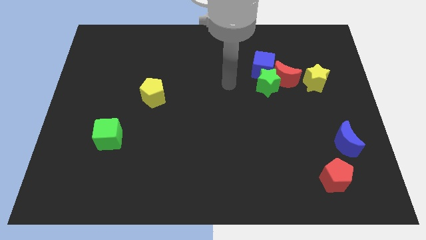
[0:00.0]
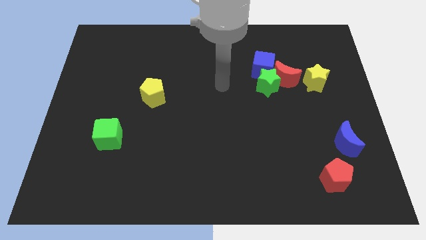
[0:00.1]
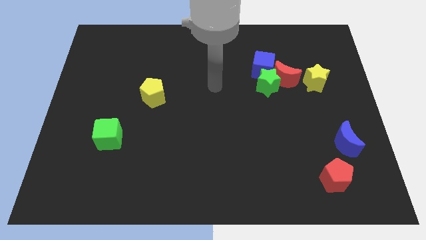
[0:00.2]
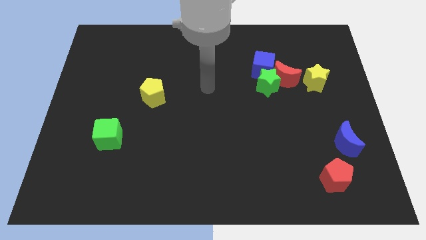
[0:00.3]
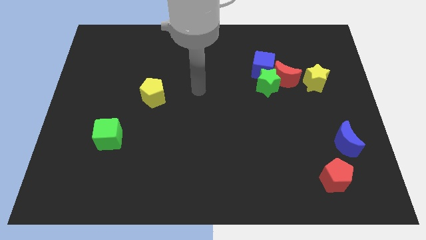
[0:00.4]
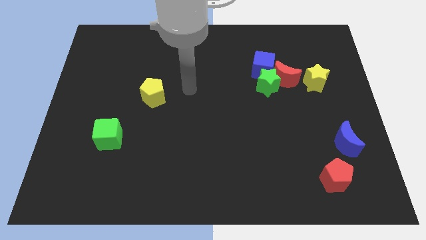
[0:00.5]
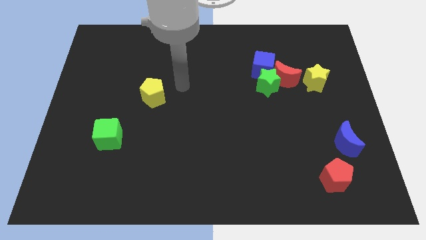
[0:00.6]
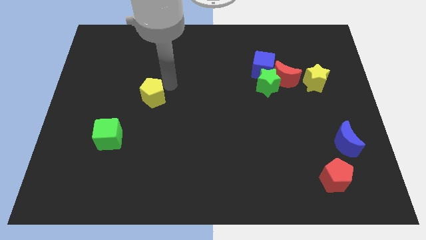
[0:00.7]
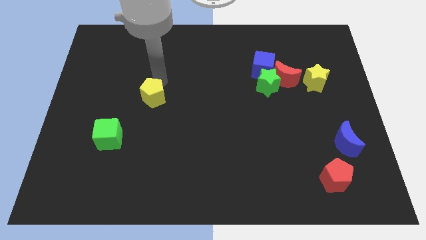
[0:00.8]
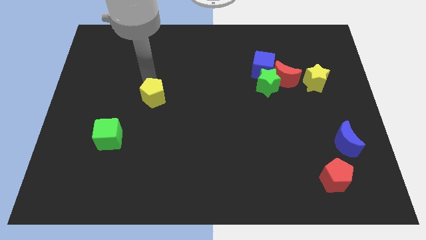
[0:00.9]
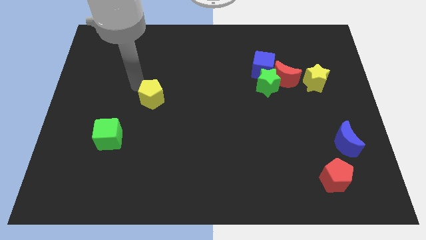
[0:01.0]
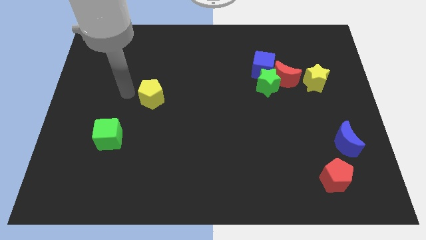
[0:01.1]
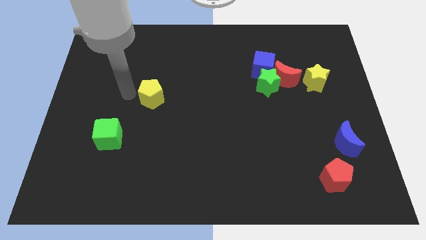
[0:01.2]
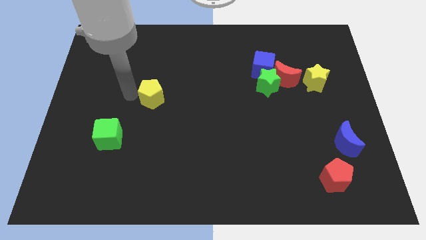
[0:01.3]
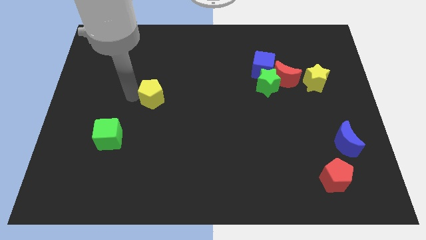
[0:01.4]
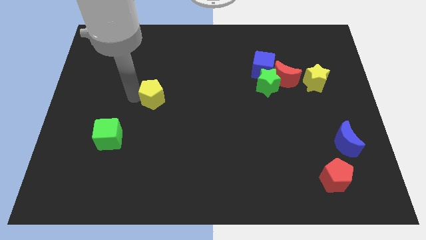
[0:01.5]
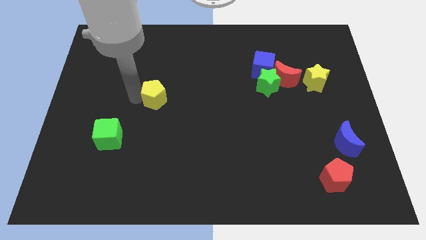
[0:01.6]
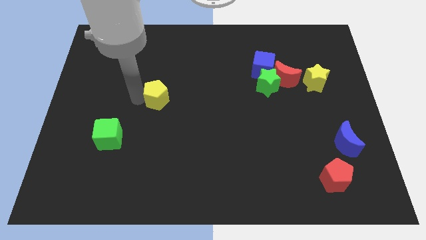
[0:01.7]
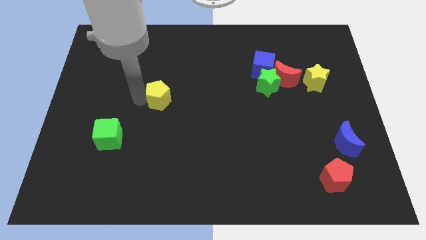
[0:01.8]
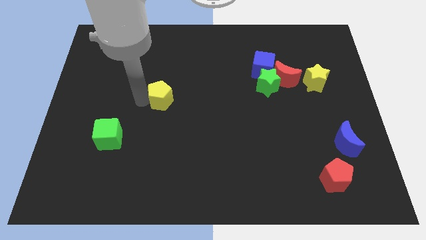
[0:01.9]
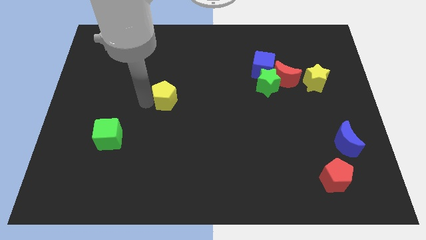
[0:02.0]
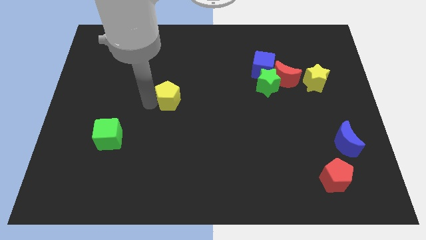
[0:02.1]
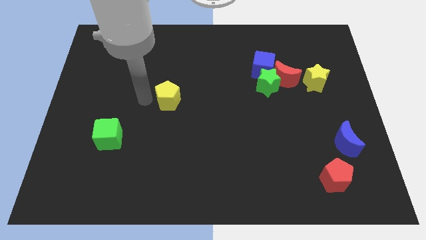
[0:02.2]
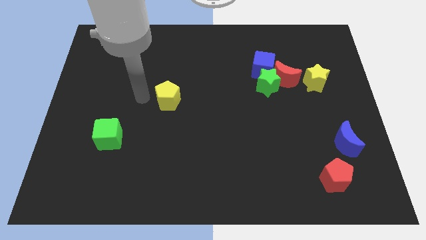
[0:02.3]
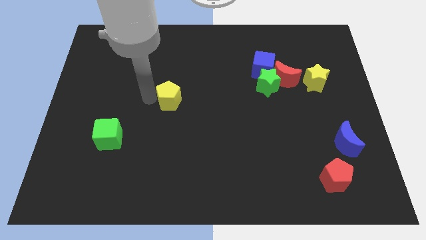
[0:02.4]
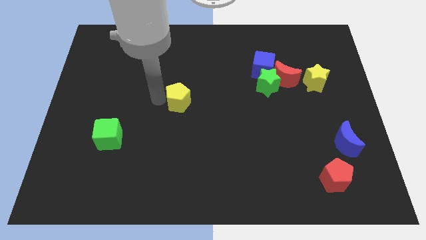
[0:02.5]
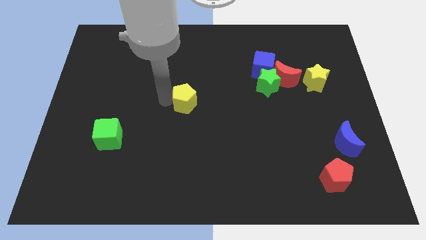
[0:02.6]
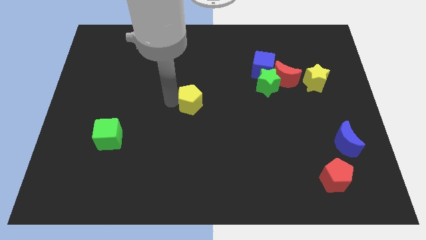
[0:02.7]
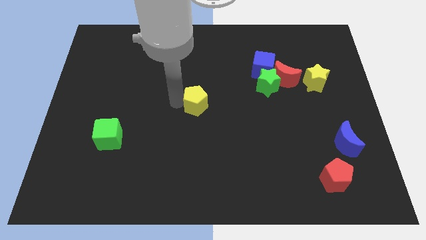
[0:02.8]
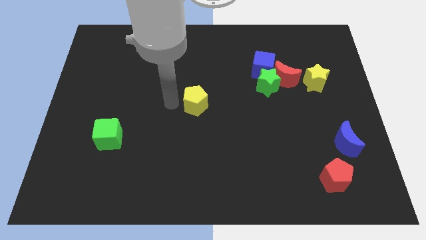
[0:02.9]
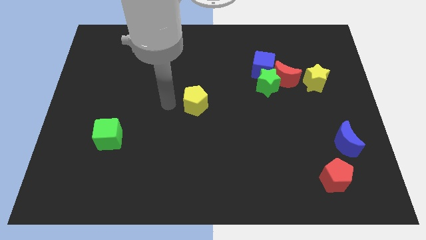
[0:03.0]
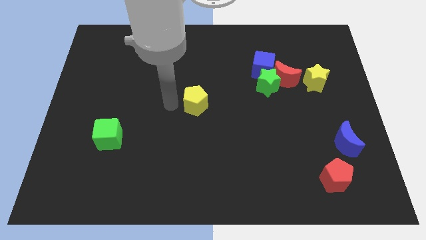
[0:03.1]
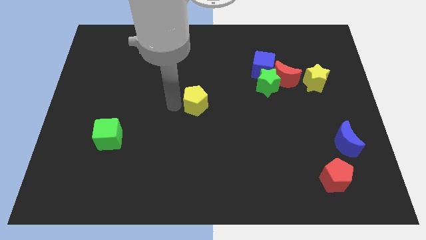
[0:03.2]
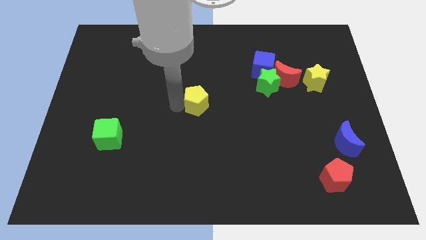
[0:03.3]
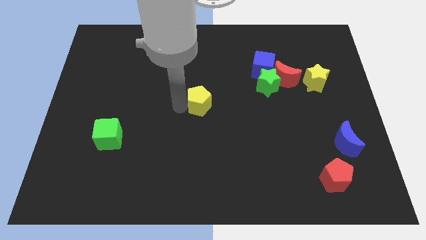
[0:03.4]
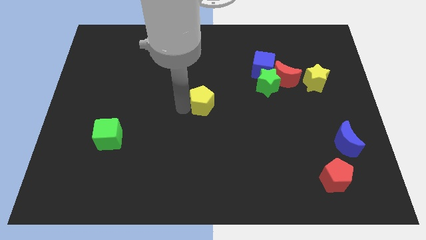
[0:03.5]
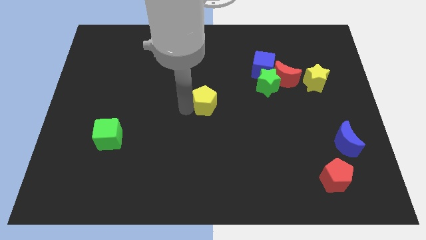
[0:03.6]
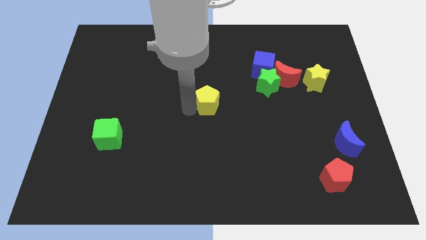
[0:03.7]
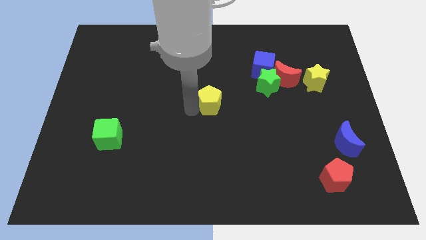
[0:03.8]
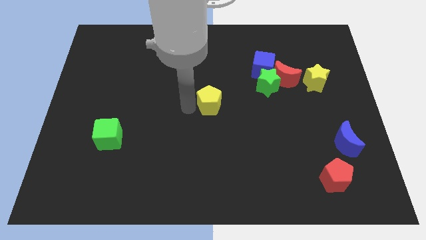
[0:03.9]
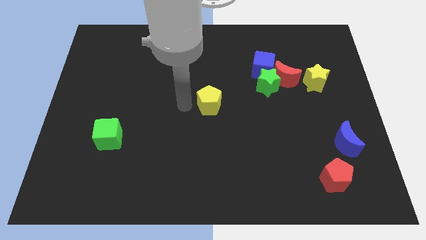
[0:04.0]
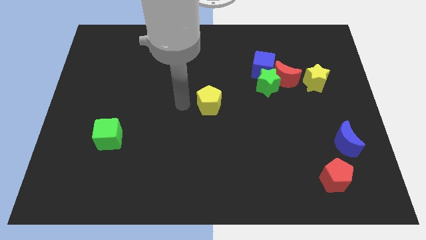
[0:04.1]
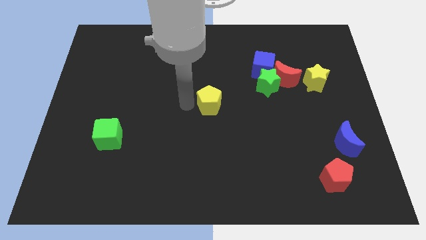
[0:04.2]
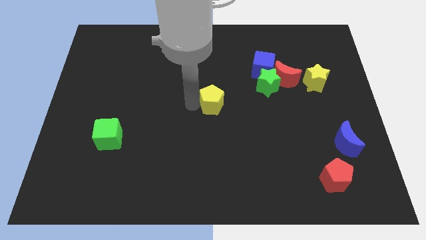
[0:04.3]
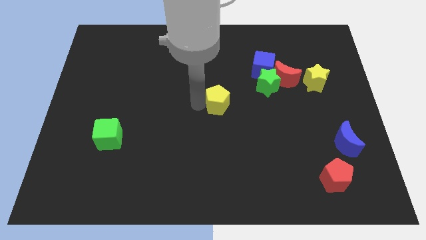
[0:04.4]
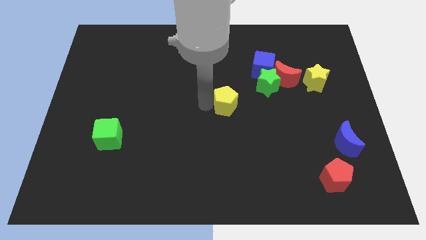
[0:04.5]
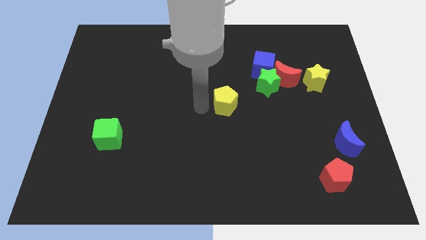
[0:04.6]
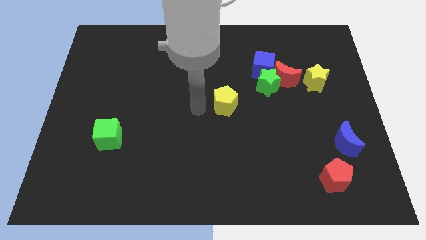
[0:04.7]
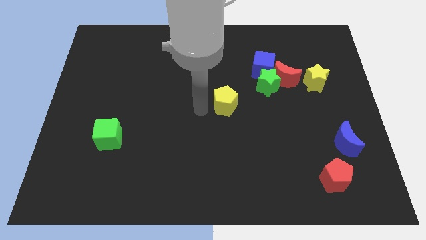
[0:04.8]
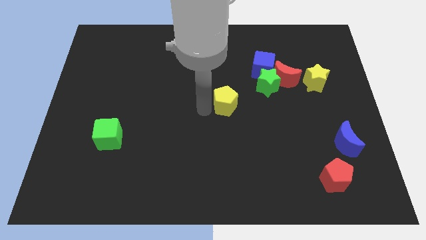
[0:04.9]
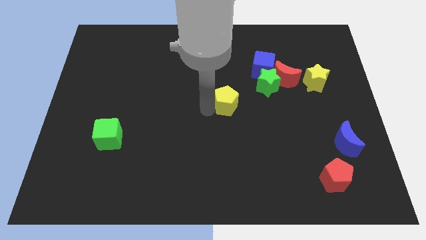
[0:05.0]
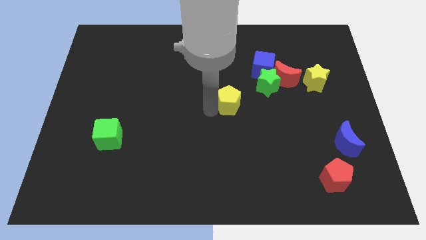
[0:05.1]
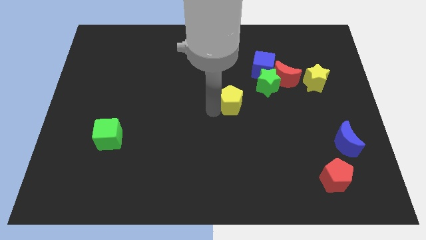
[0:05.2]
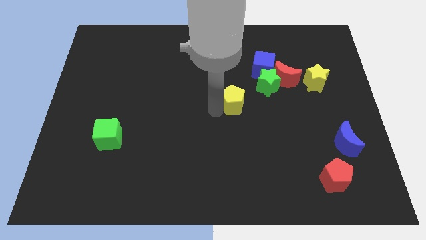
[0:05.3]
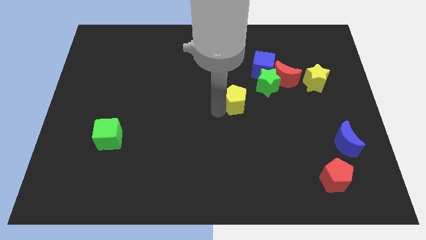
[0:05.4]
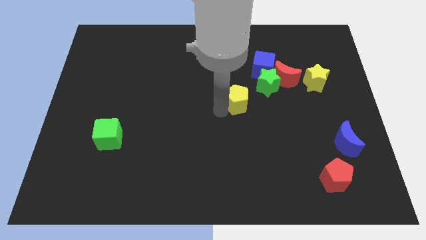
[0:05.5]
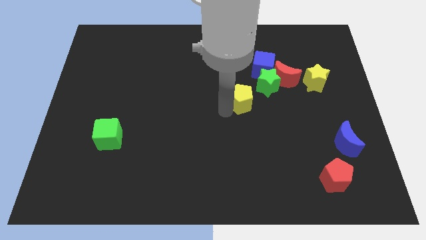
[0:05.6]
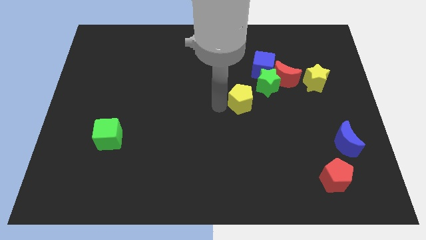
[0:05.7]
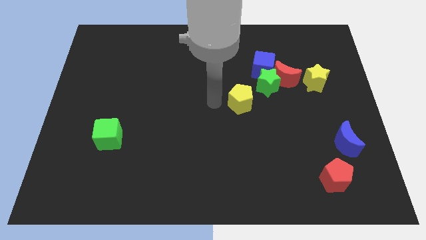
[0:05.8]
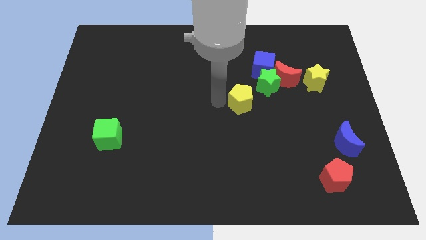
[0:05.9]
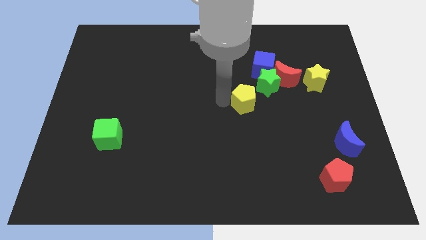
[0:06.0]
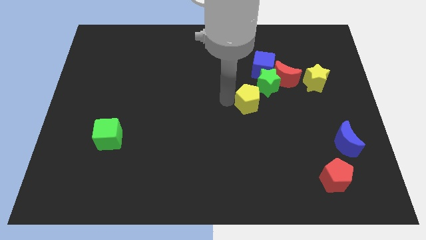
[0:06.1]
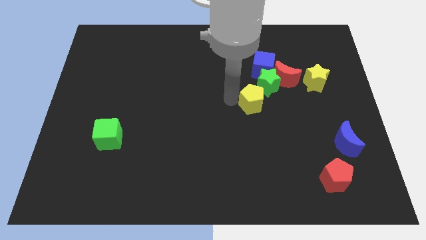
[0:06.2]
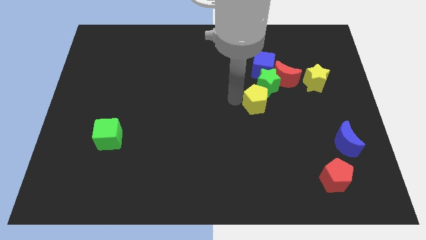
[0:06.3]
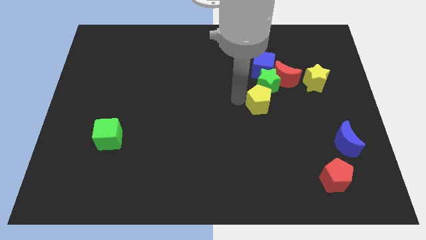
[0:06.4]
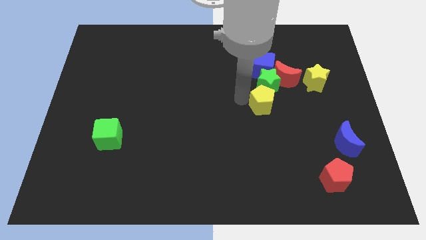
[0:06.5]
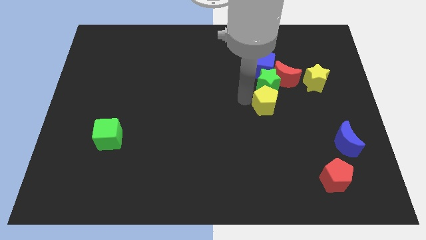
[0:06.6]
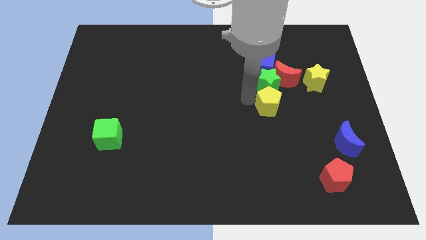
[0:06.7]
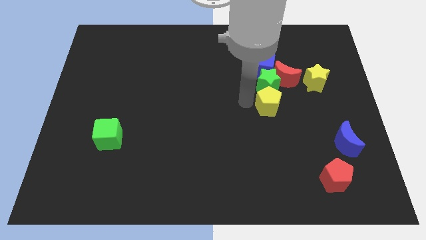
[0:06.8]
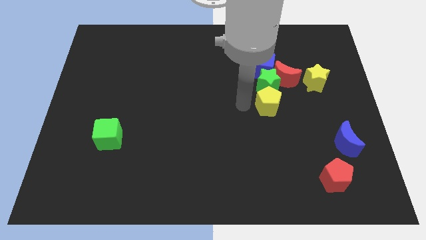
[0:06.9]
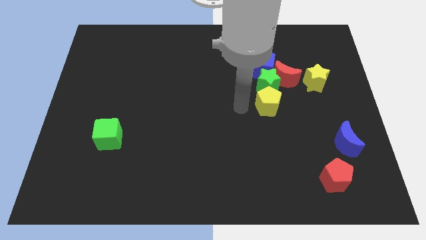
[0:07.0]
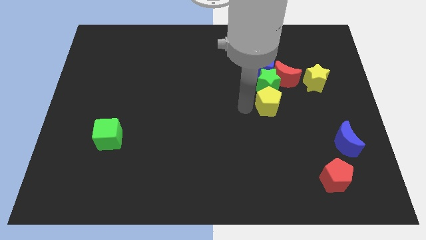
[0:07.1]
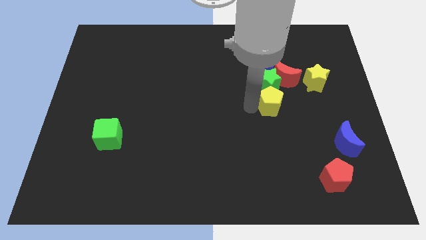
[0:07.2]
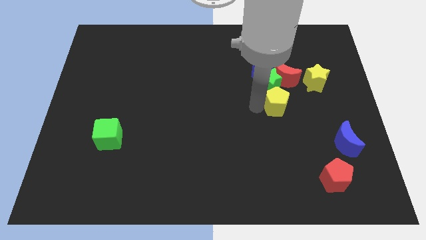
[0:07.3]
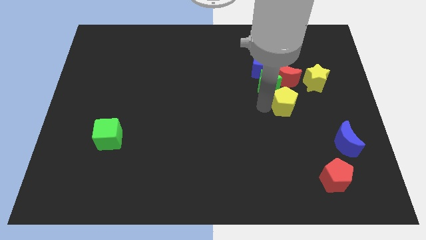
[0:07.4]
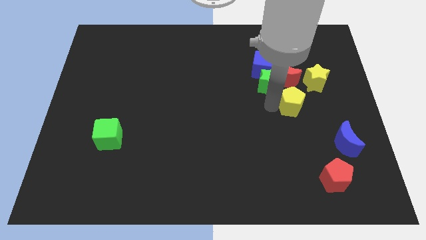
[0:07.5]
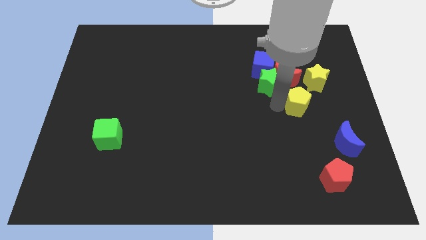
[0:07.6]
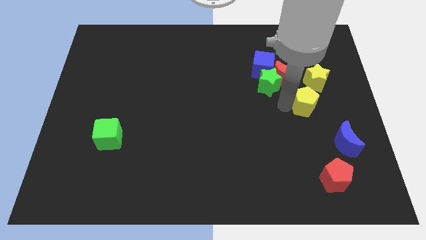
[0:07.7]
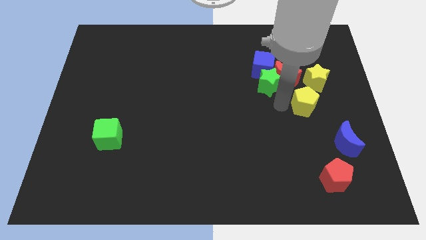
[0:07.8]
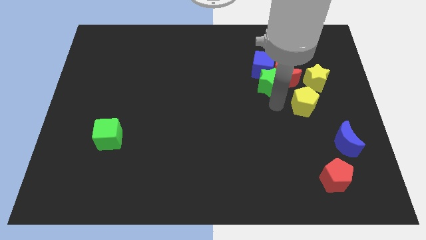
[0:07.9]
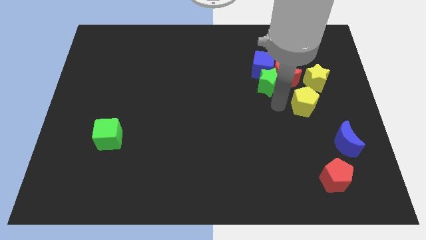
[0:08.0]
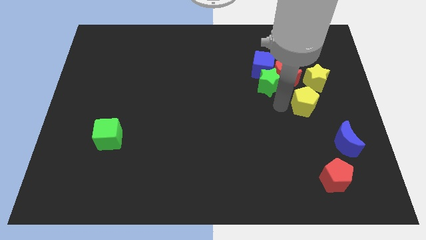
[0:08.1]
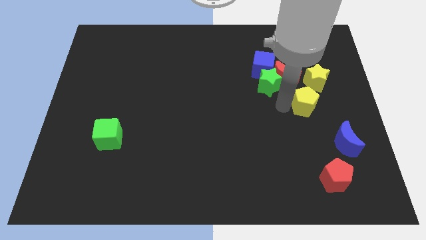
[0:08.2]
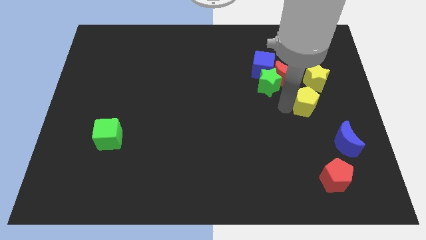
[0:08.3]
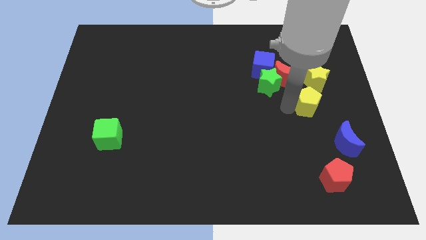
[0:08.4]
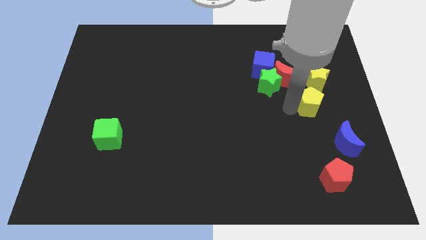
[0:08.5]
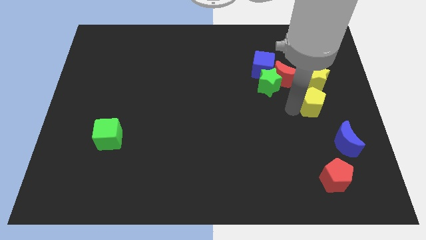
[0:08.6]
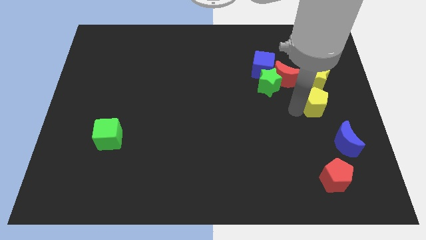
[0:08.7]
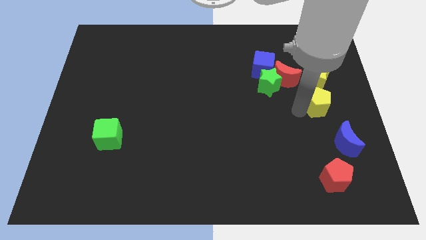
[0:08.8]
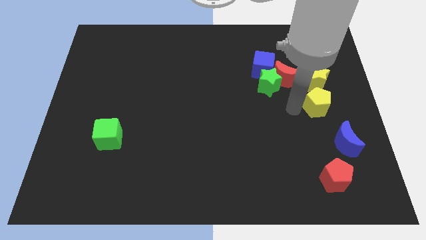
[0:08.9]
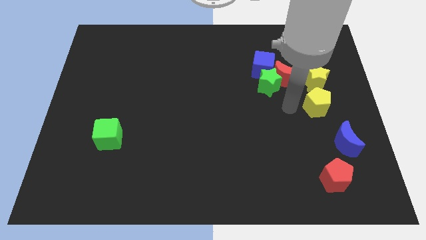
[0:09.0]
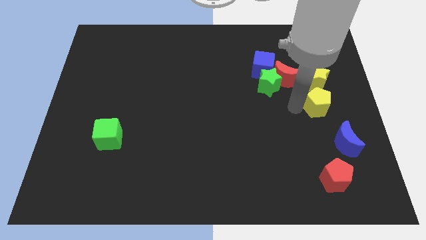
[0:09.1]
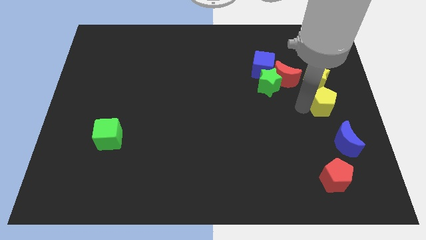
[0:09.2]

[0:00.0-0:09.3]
put the yellow pentagon to the center right
